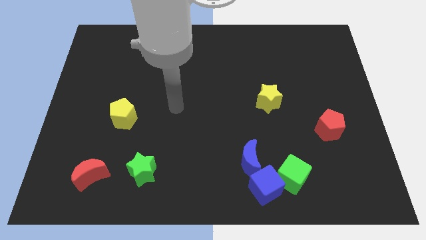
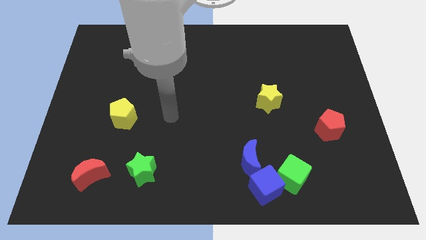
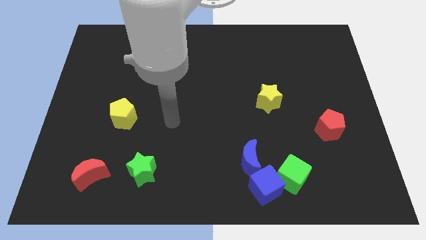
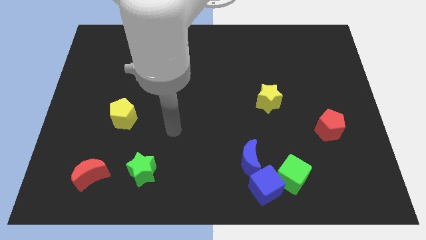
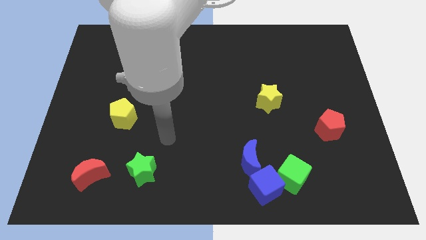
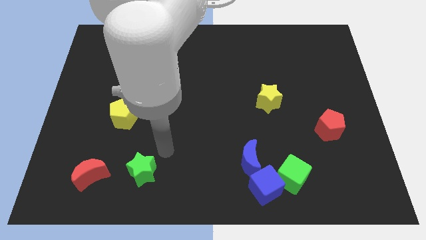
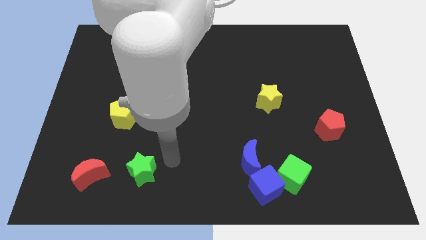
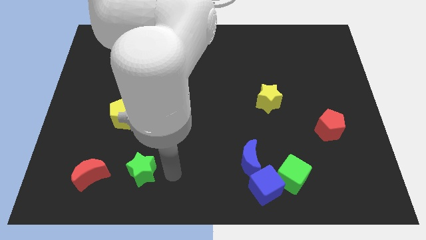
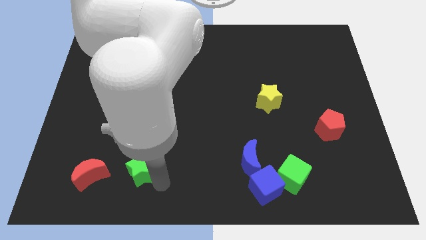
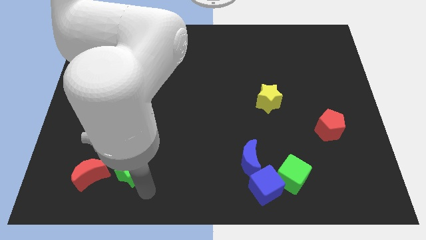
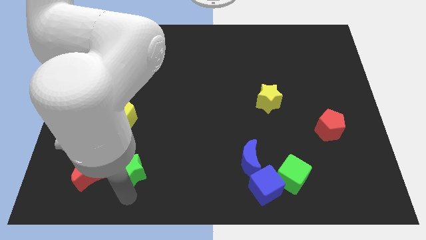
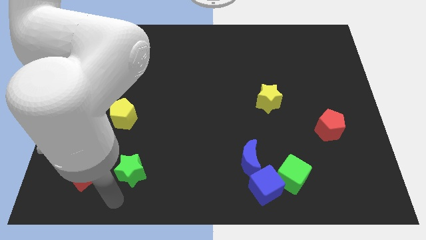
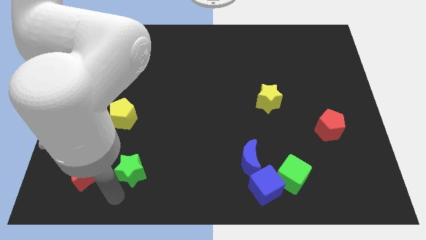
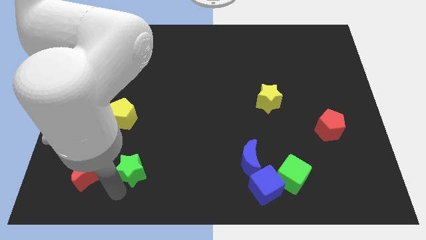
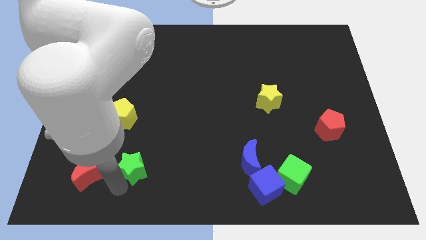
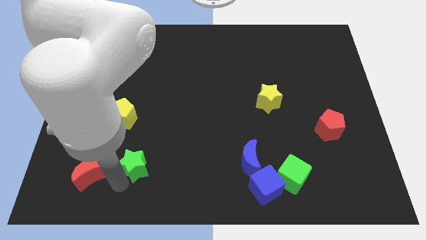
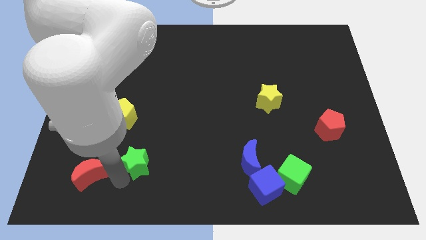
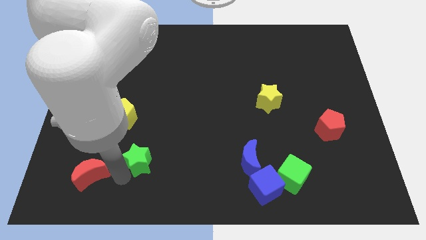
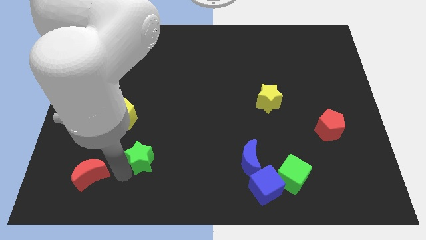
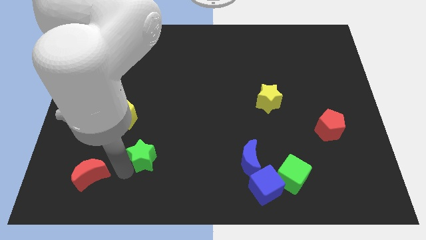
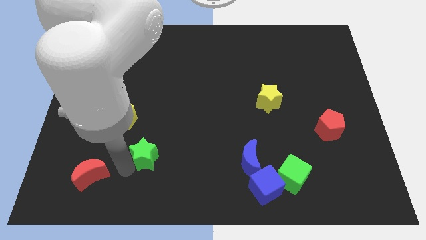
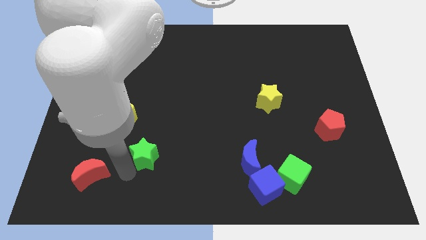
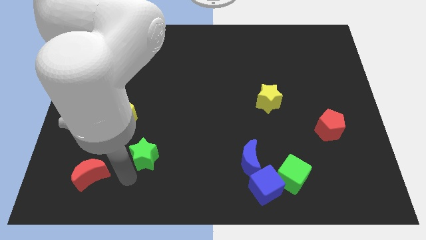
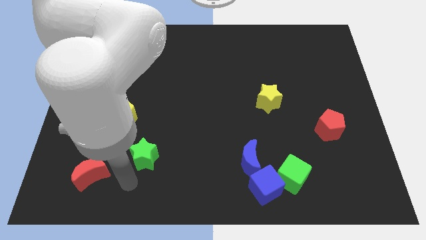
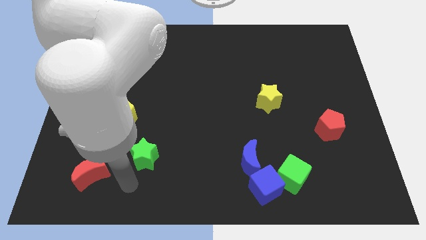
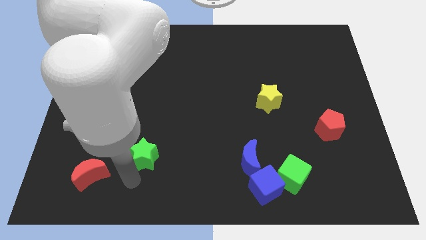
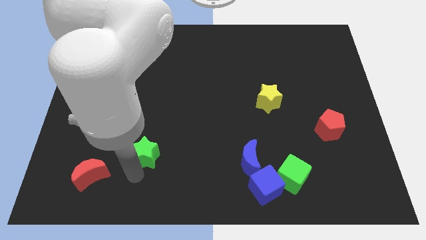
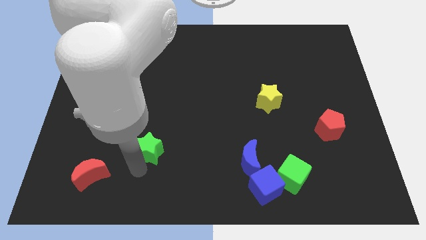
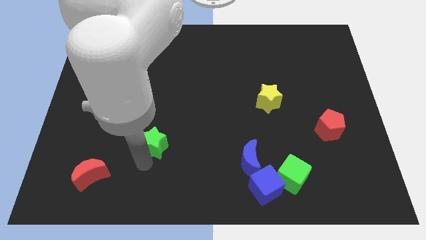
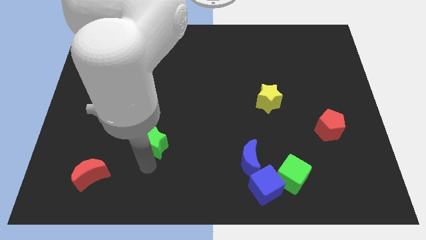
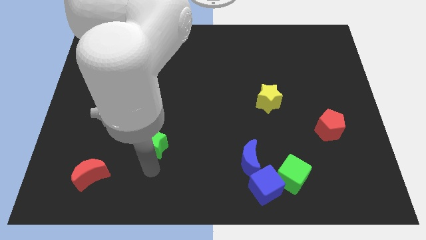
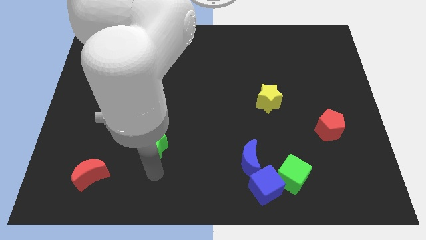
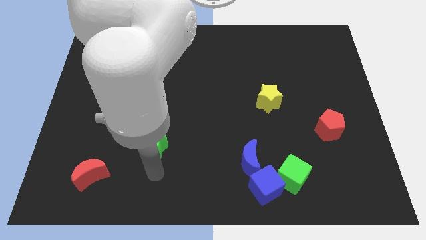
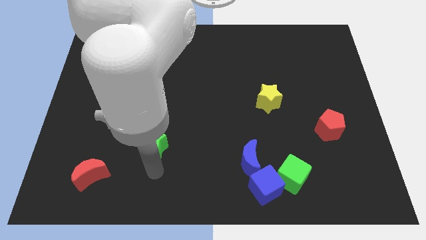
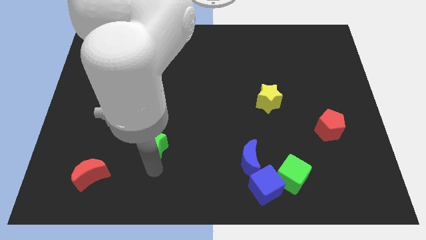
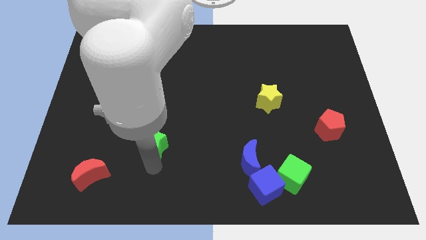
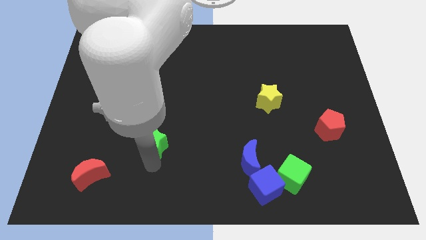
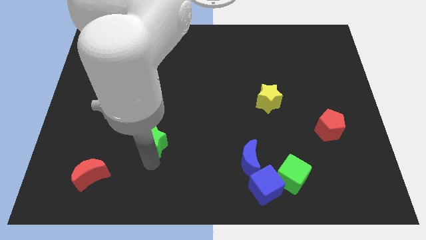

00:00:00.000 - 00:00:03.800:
push the green star slightly upwards

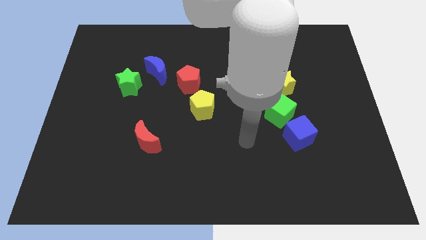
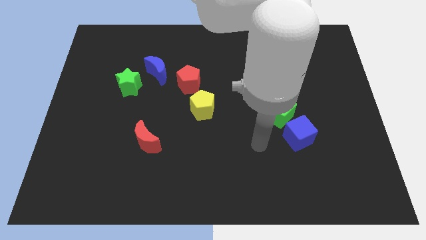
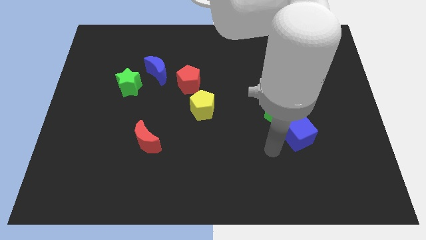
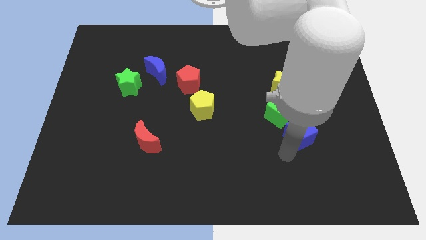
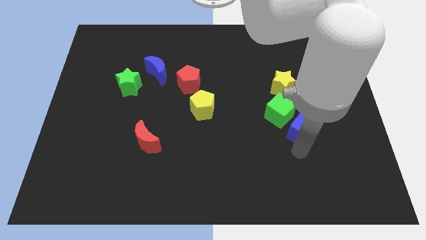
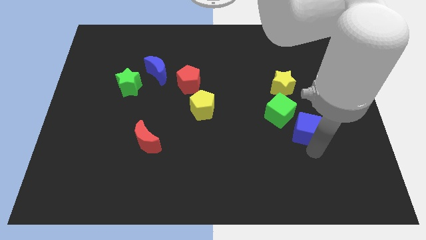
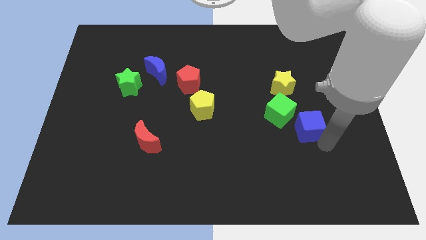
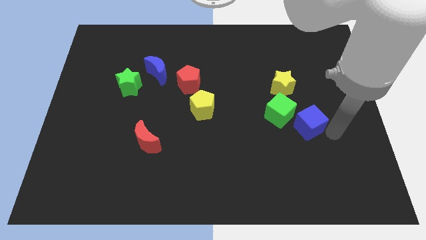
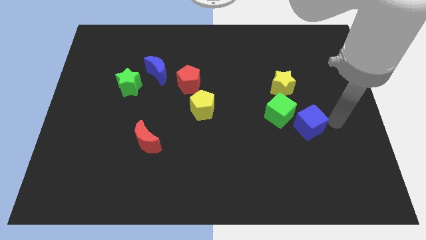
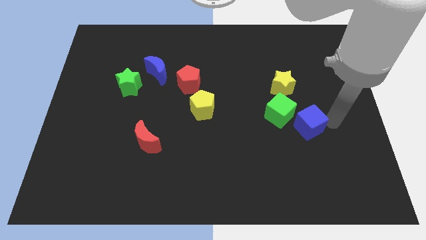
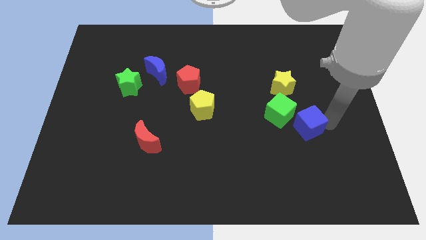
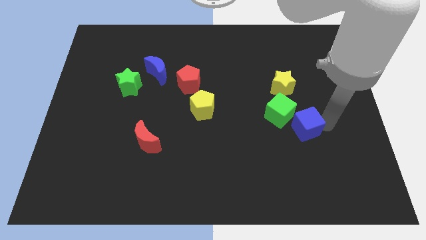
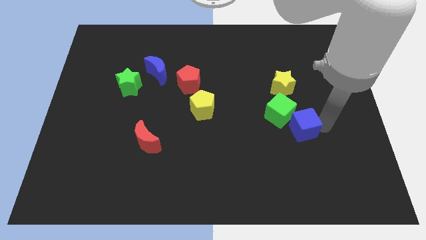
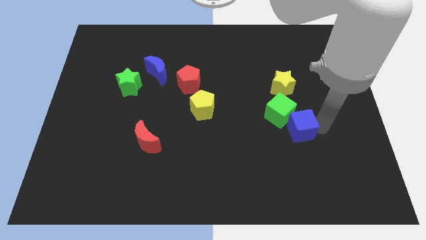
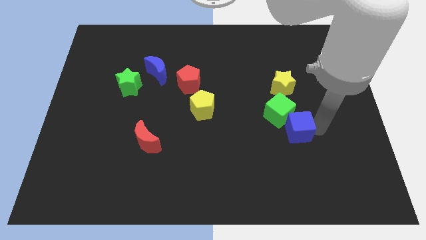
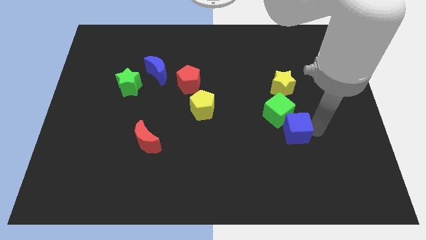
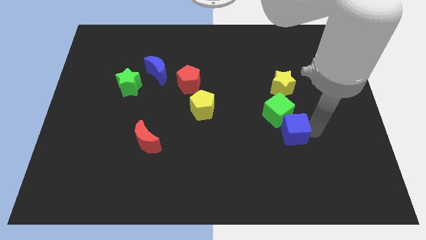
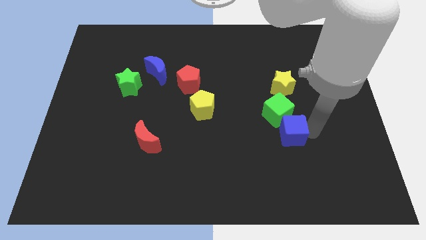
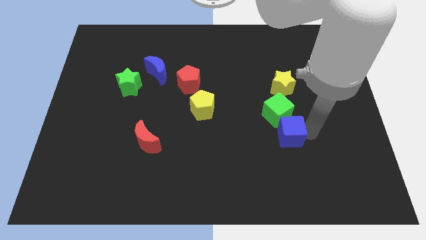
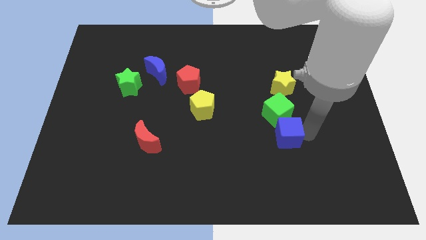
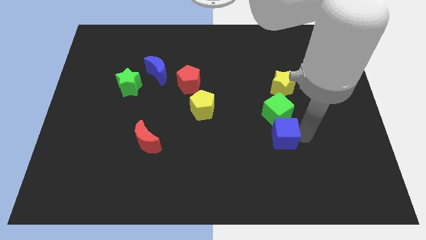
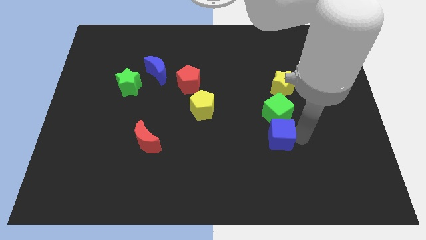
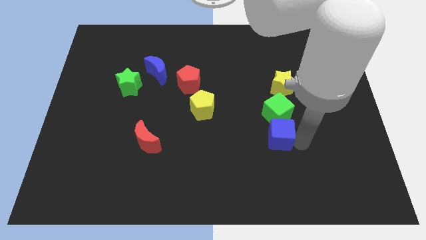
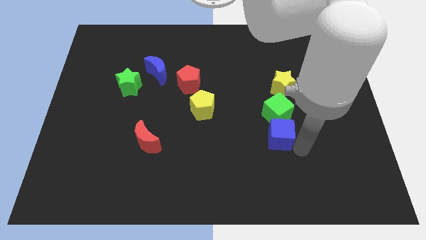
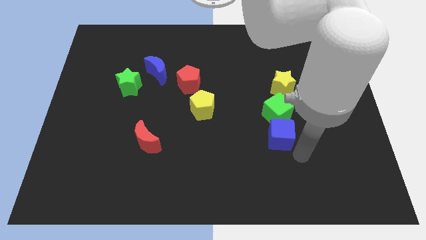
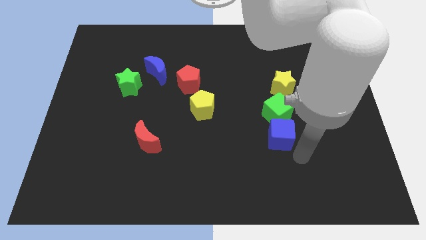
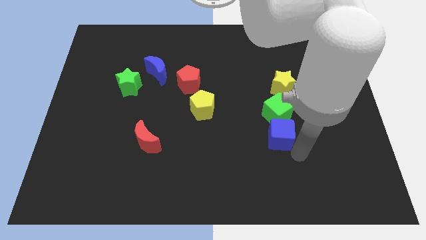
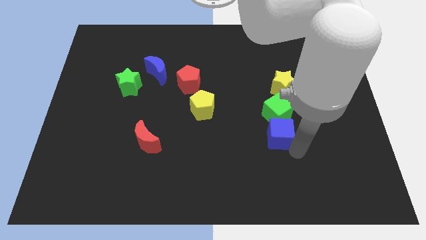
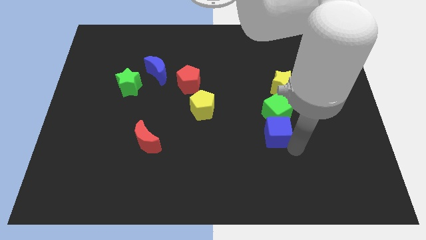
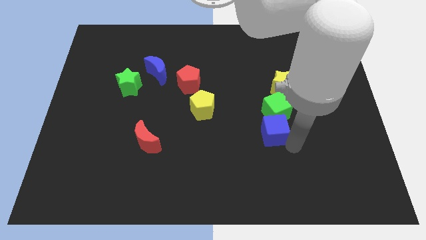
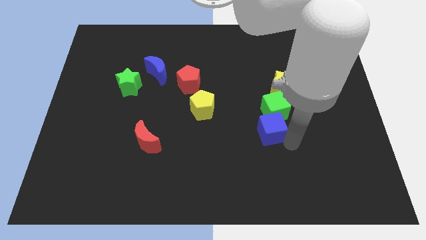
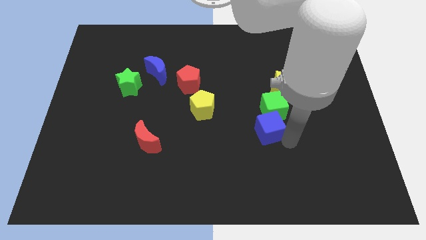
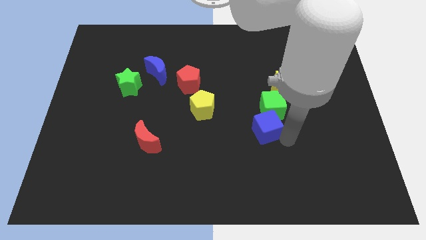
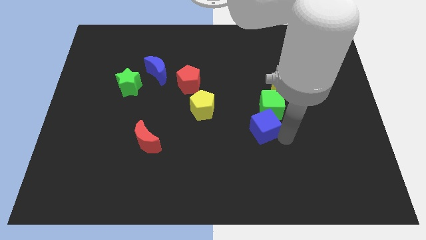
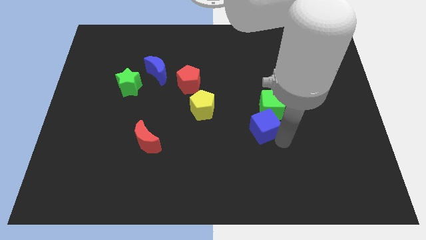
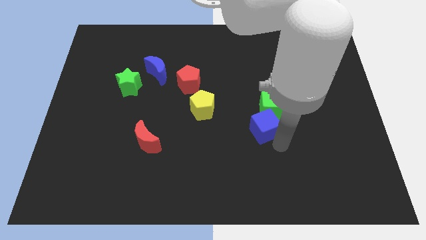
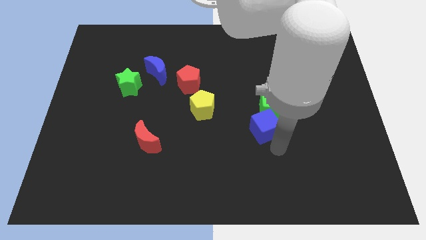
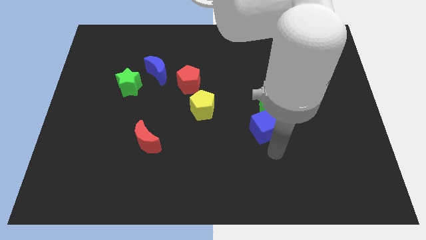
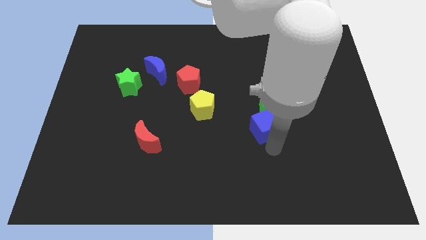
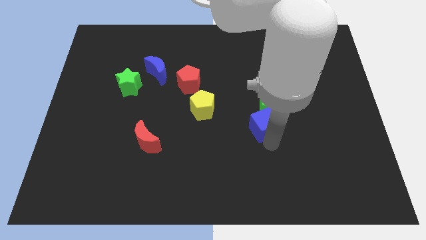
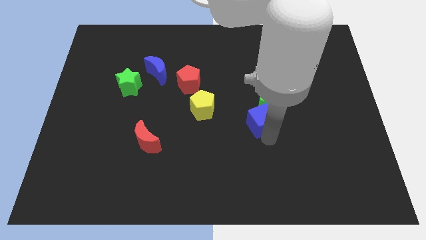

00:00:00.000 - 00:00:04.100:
slightly slide the blue cube diagonally upwards and left

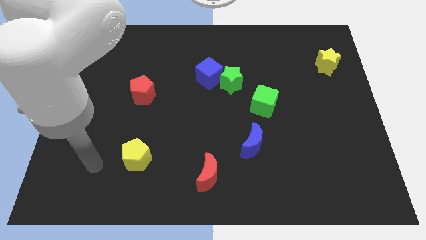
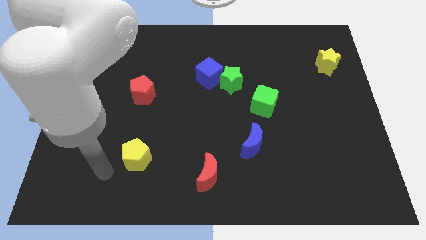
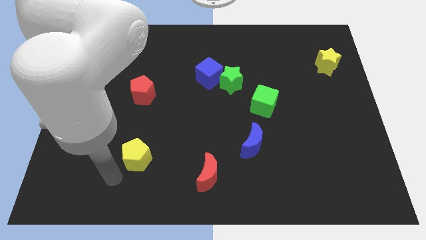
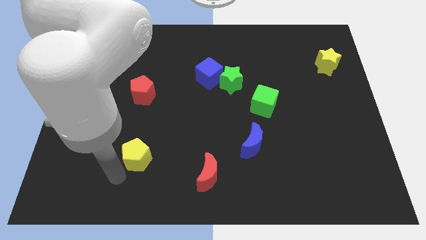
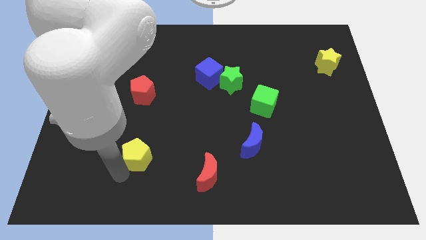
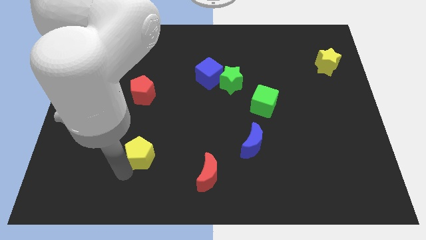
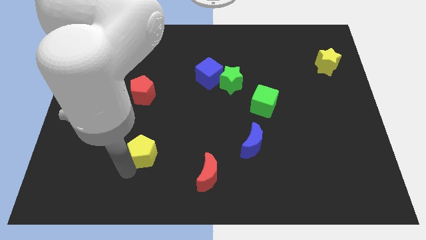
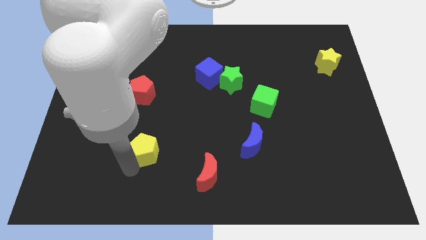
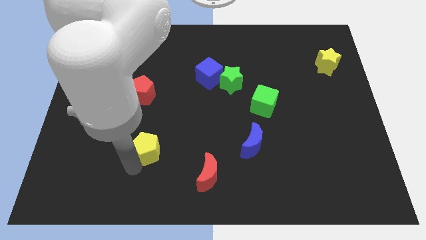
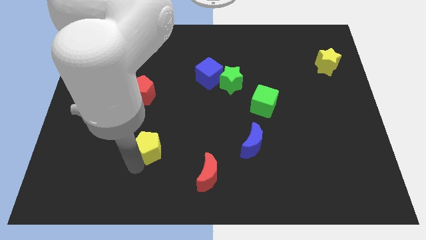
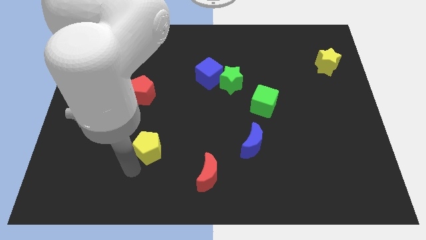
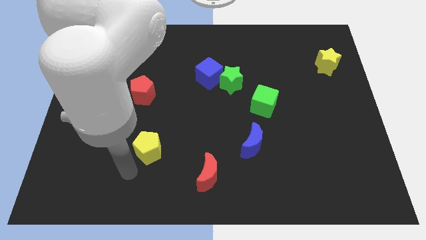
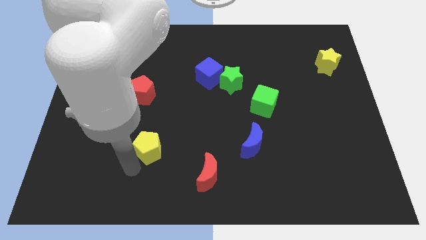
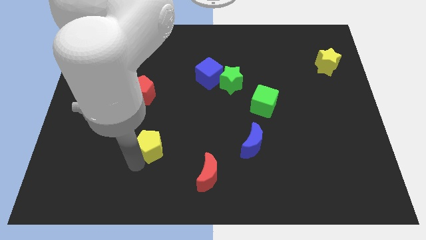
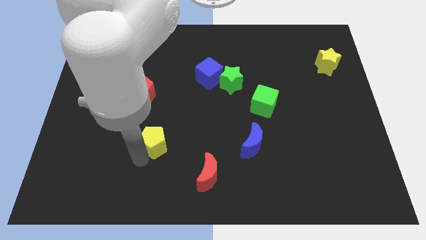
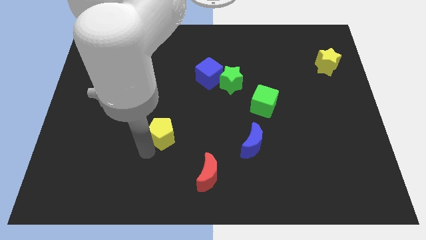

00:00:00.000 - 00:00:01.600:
push the yellow pentagon up and to the right a bit
